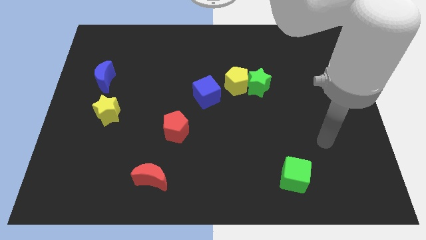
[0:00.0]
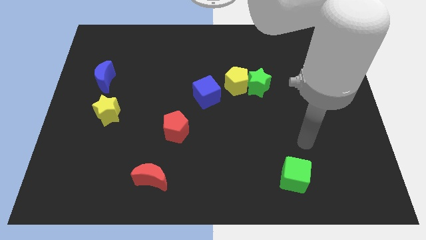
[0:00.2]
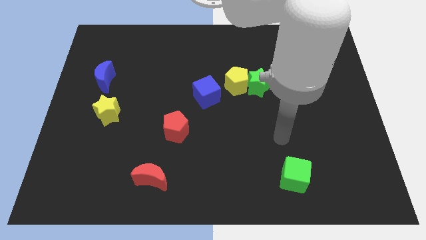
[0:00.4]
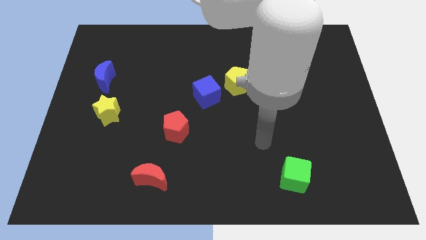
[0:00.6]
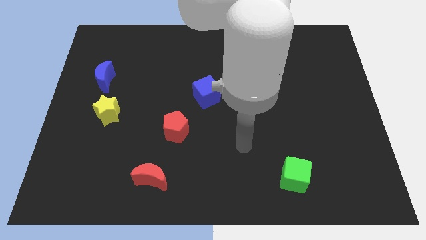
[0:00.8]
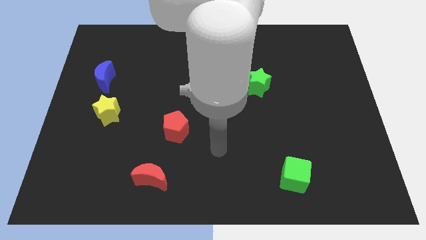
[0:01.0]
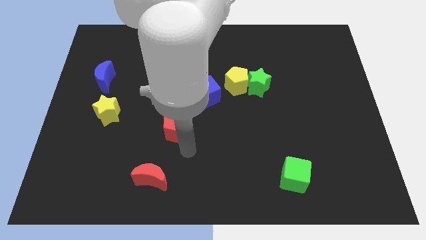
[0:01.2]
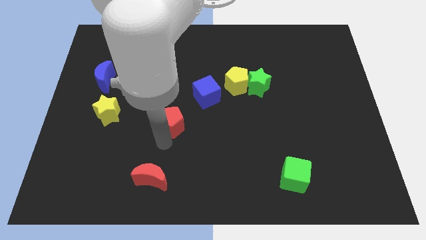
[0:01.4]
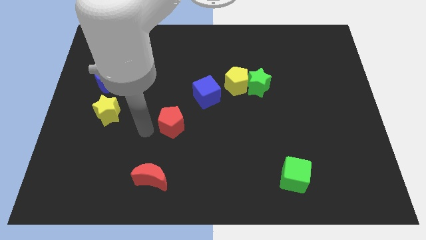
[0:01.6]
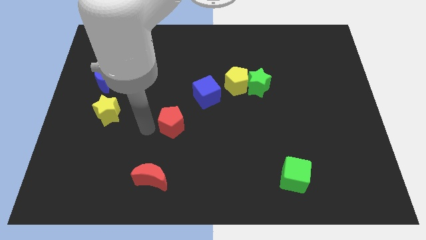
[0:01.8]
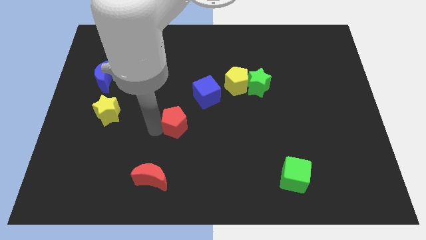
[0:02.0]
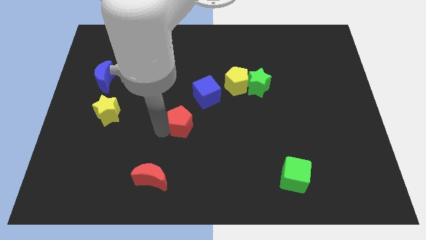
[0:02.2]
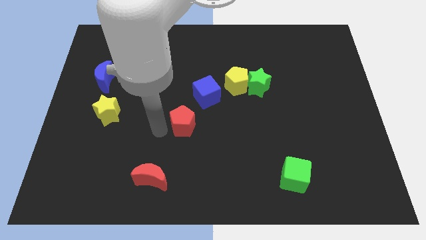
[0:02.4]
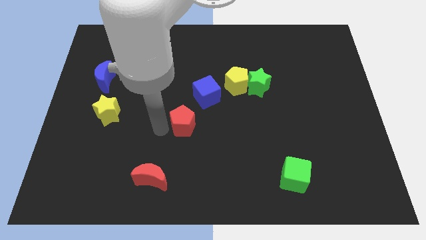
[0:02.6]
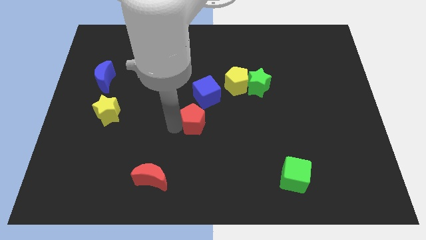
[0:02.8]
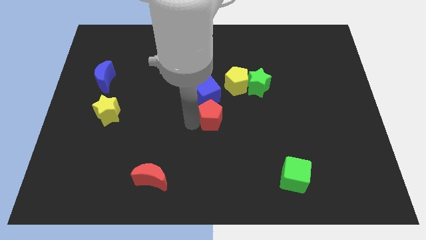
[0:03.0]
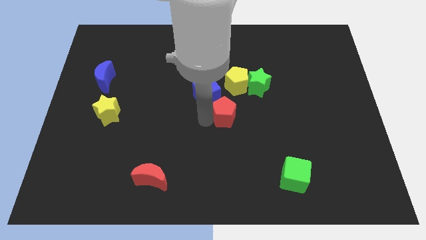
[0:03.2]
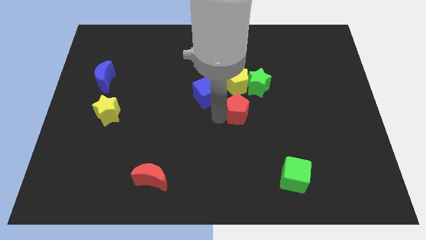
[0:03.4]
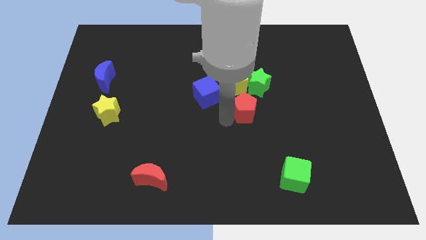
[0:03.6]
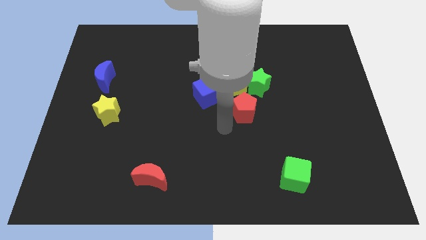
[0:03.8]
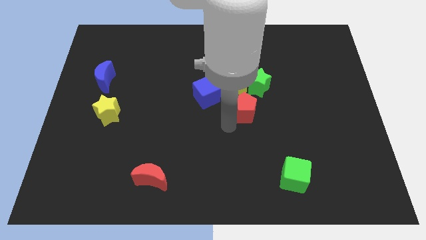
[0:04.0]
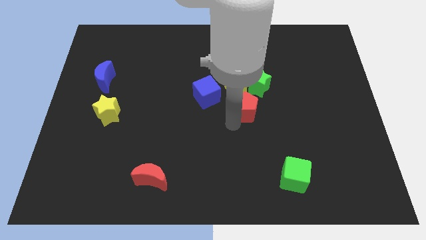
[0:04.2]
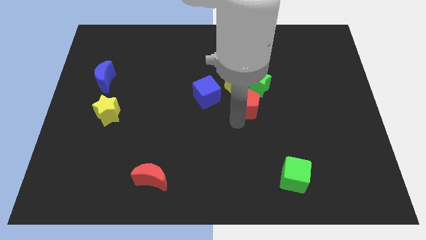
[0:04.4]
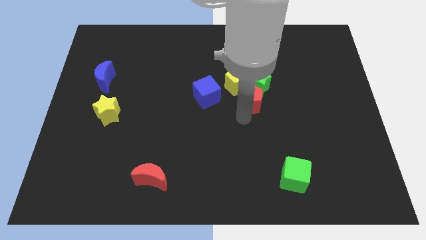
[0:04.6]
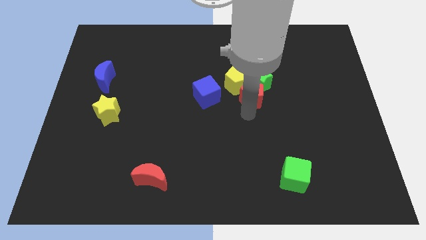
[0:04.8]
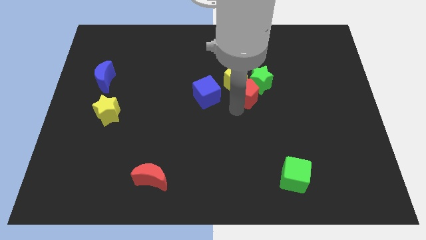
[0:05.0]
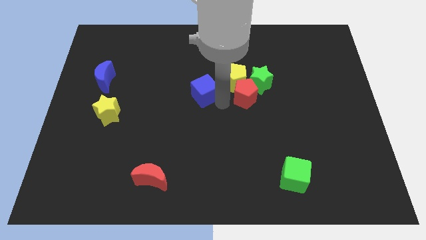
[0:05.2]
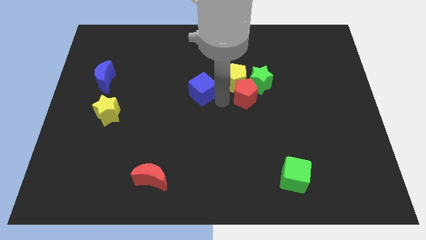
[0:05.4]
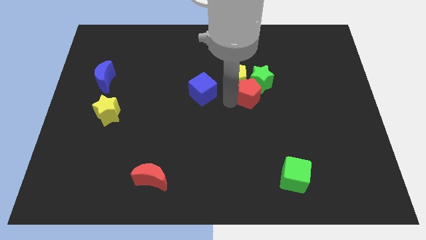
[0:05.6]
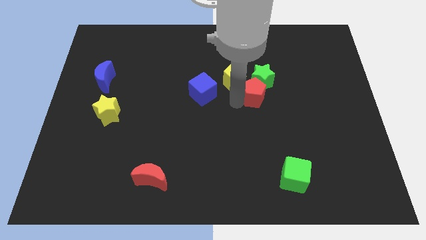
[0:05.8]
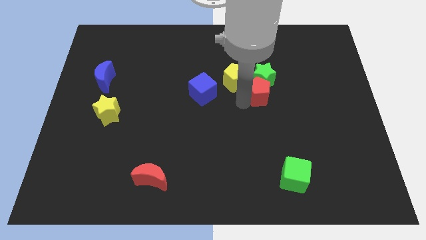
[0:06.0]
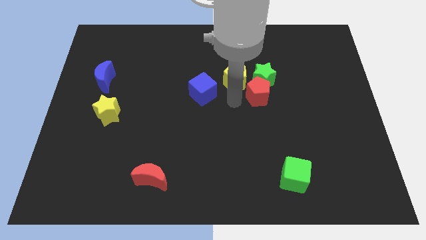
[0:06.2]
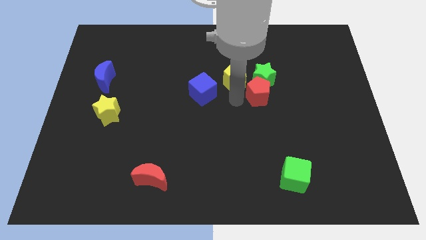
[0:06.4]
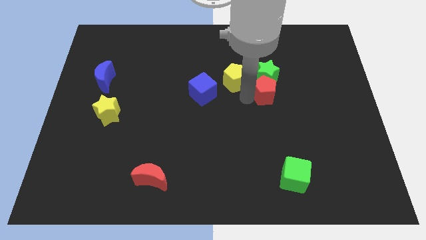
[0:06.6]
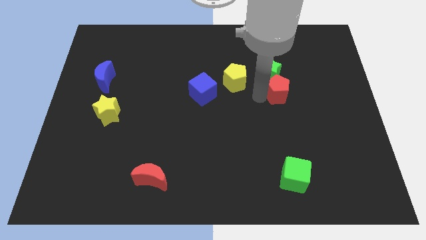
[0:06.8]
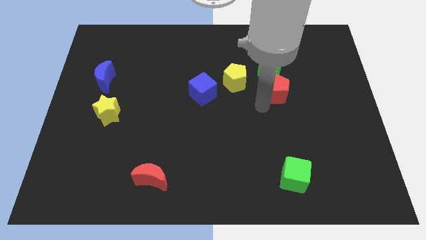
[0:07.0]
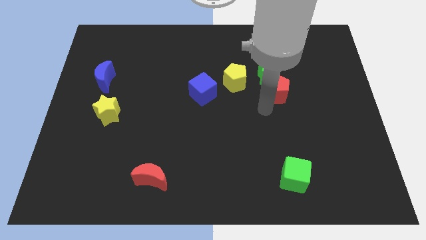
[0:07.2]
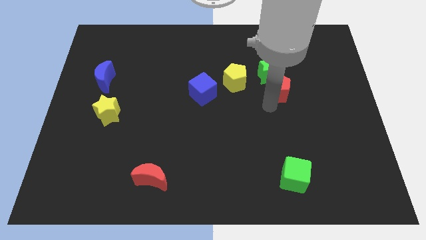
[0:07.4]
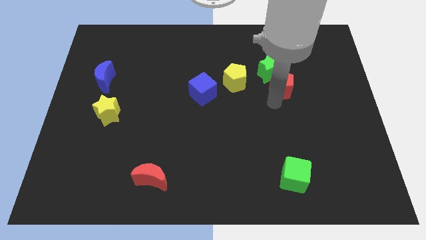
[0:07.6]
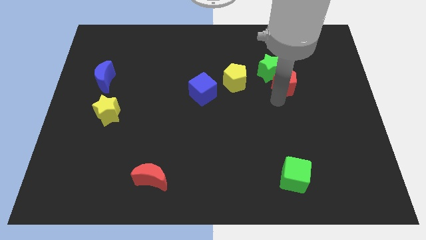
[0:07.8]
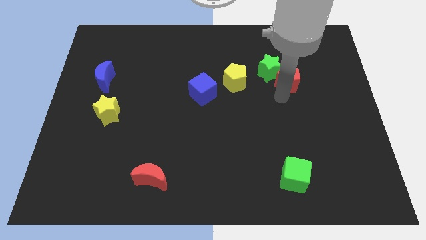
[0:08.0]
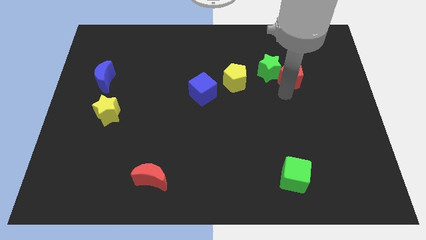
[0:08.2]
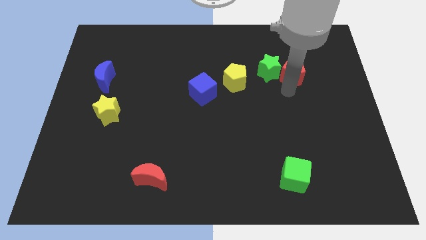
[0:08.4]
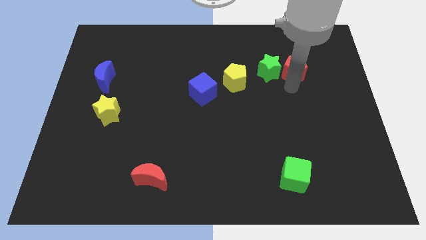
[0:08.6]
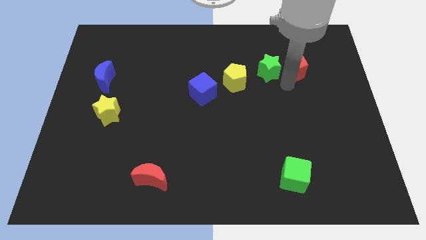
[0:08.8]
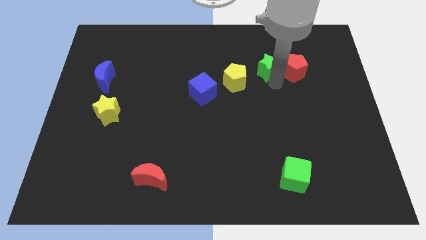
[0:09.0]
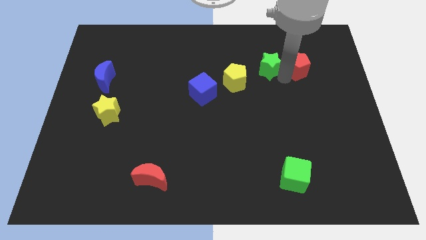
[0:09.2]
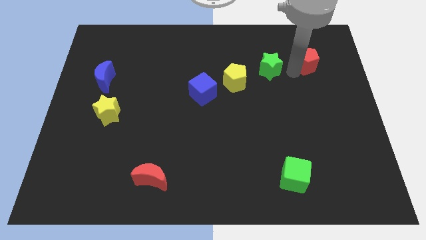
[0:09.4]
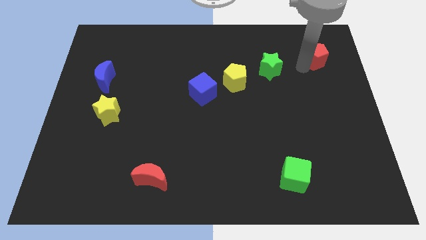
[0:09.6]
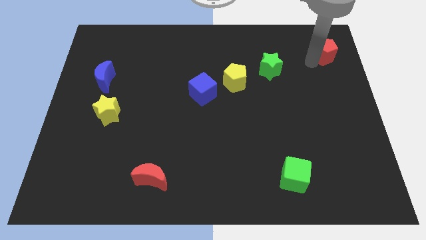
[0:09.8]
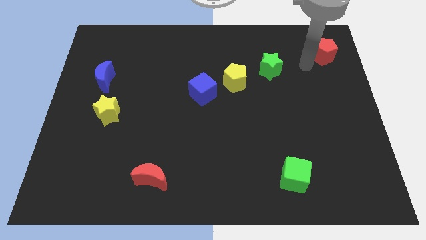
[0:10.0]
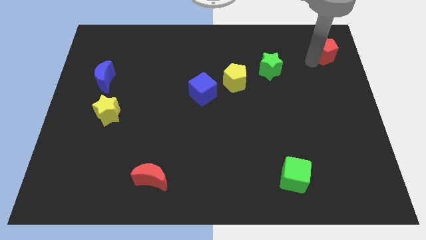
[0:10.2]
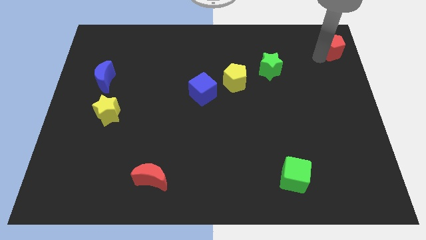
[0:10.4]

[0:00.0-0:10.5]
put the red pentagon to the upper right corner

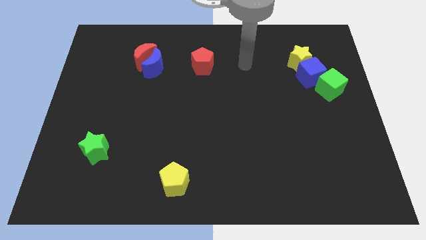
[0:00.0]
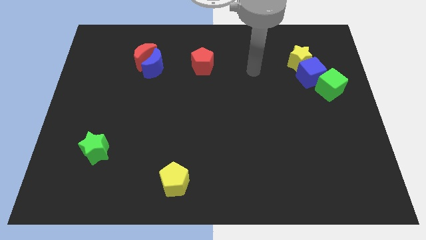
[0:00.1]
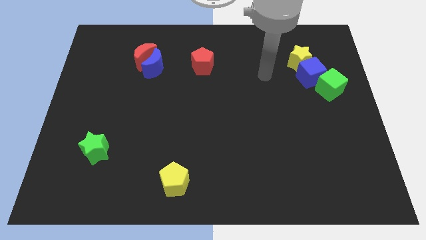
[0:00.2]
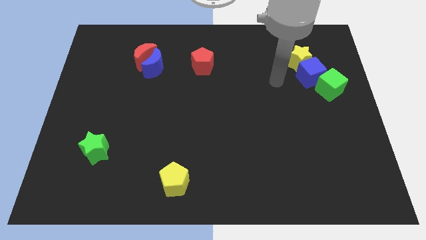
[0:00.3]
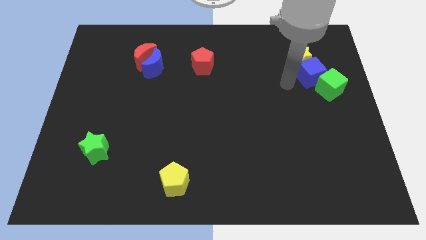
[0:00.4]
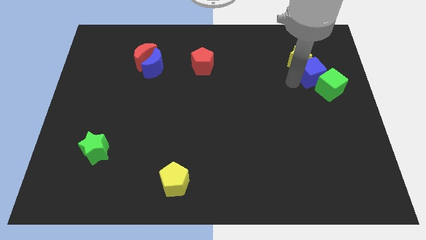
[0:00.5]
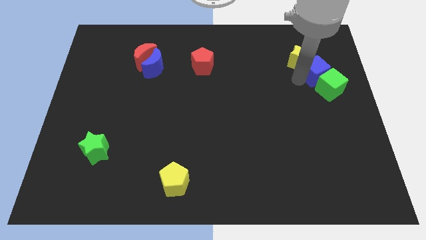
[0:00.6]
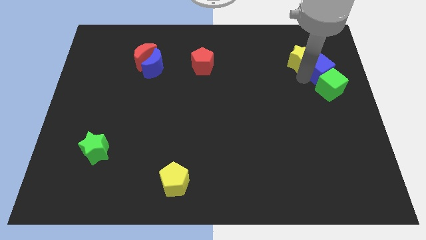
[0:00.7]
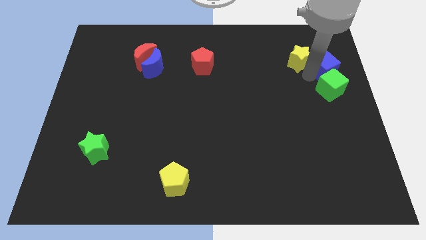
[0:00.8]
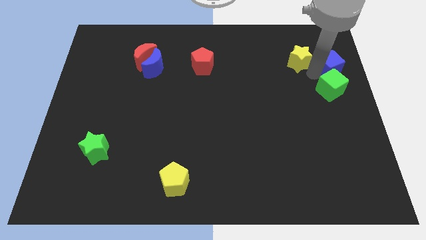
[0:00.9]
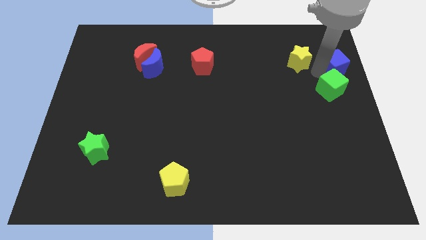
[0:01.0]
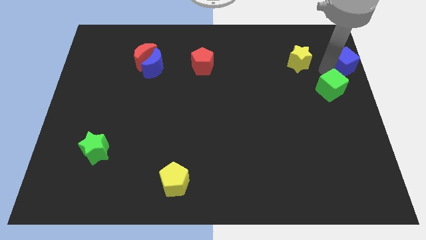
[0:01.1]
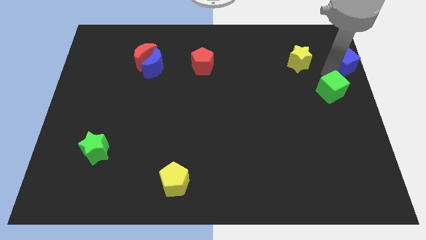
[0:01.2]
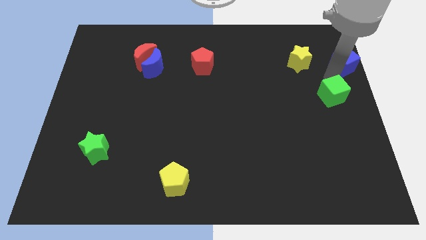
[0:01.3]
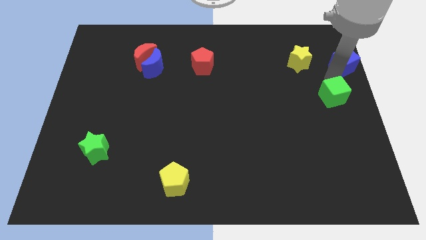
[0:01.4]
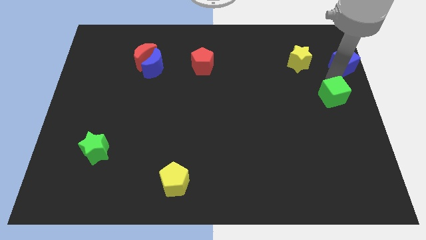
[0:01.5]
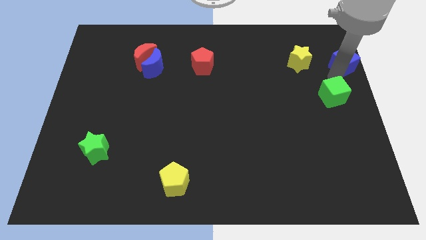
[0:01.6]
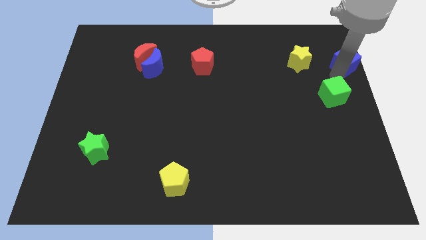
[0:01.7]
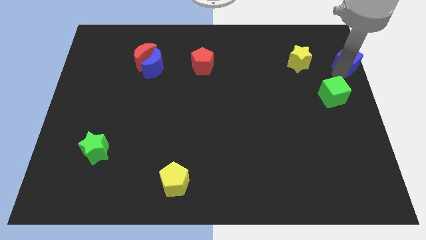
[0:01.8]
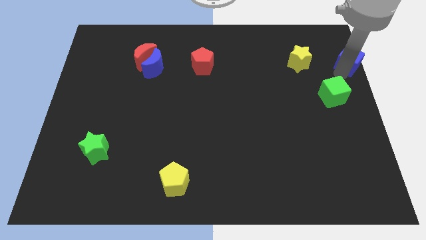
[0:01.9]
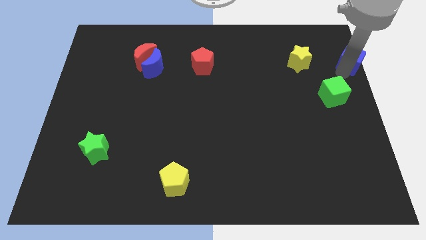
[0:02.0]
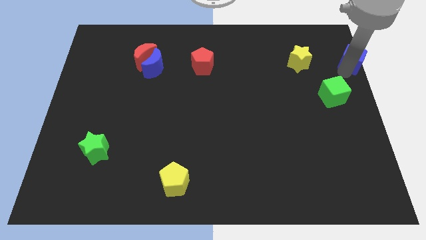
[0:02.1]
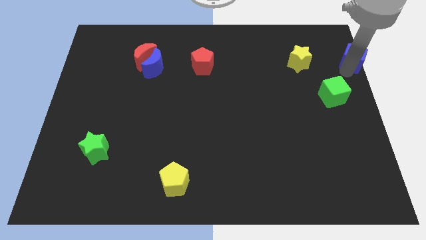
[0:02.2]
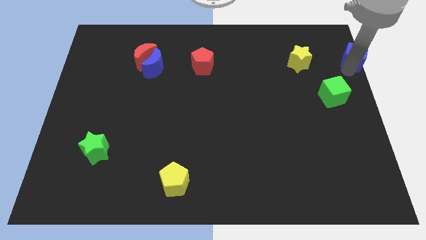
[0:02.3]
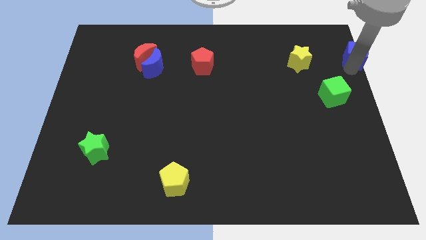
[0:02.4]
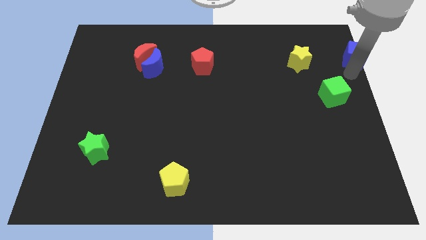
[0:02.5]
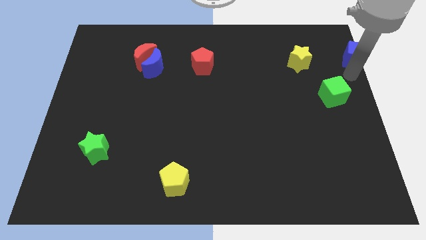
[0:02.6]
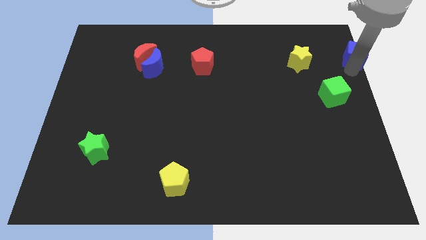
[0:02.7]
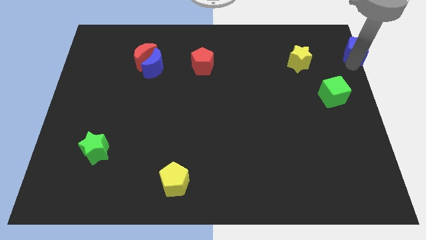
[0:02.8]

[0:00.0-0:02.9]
put the blue cube to the top right of the board
